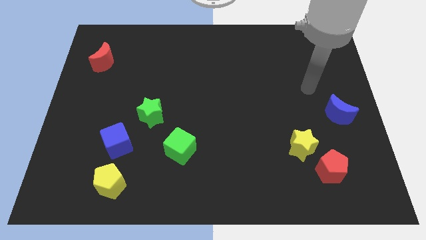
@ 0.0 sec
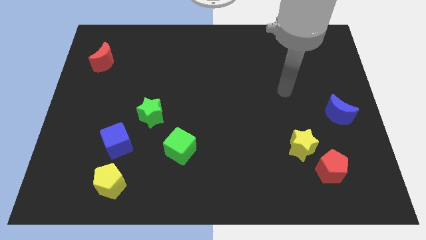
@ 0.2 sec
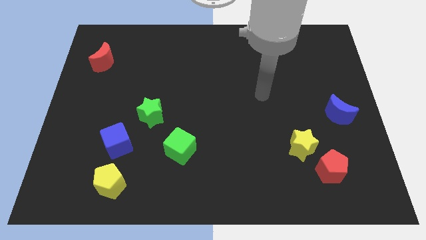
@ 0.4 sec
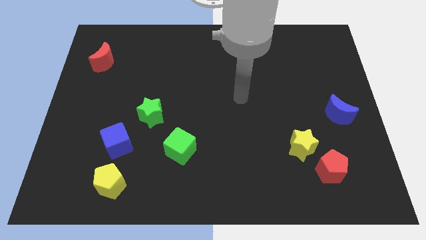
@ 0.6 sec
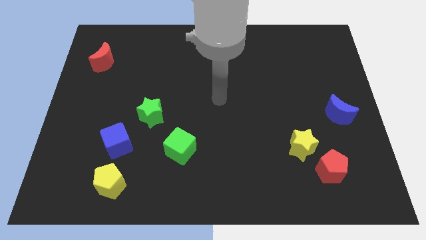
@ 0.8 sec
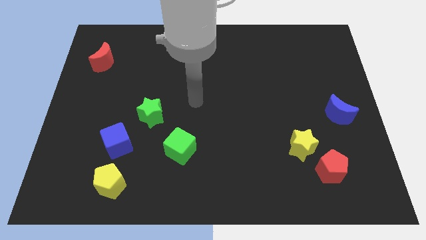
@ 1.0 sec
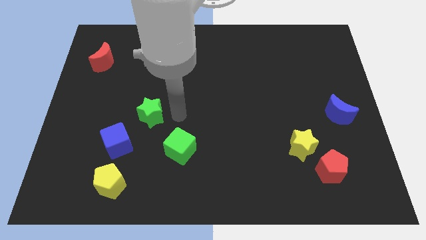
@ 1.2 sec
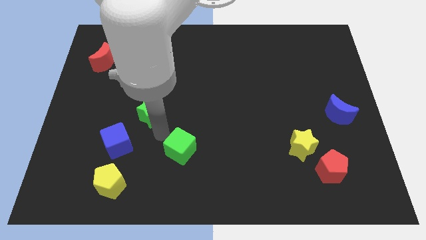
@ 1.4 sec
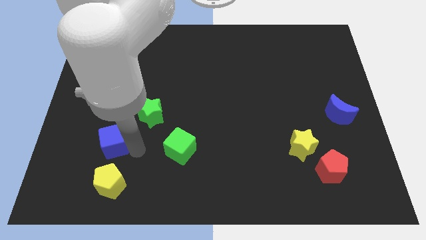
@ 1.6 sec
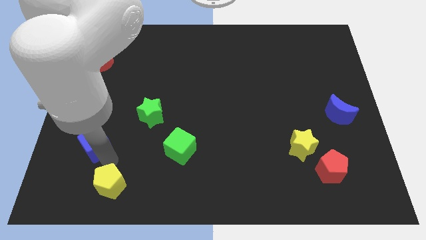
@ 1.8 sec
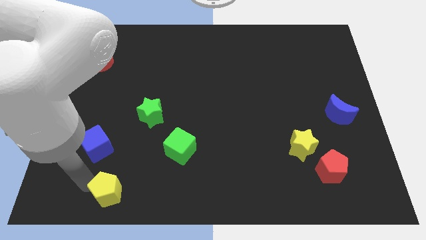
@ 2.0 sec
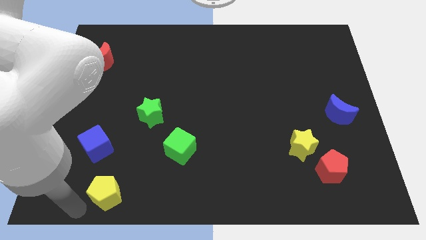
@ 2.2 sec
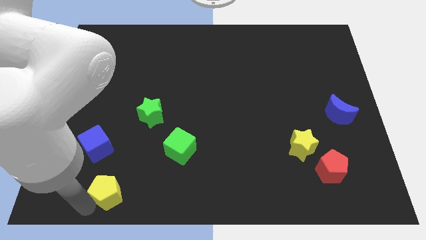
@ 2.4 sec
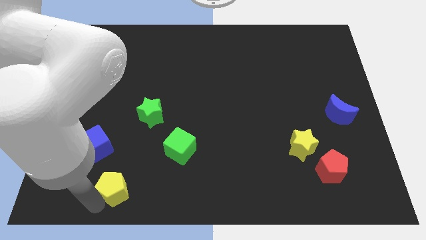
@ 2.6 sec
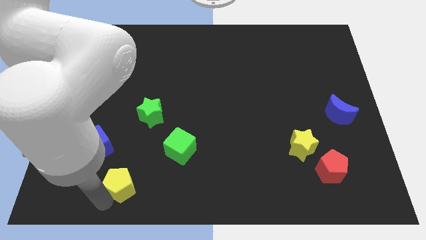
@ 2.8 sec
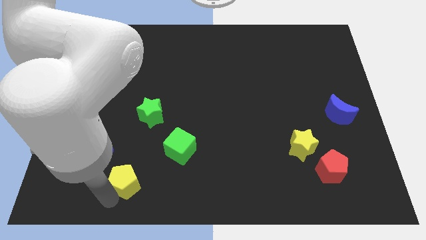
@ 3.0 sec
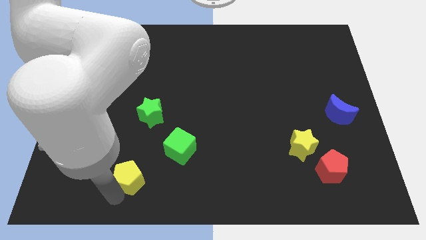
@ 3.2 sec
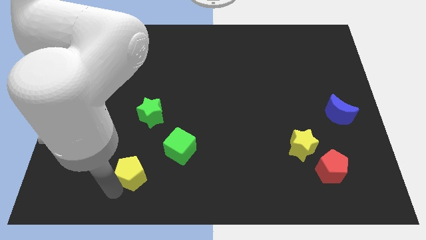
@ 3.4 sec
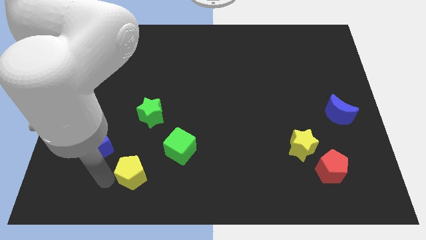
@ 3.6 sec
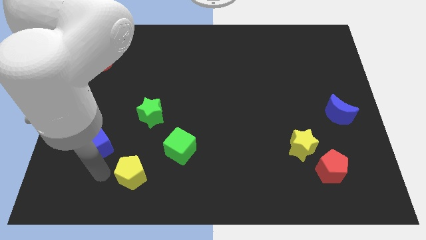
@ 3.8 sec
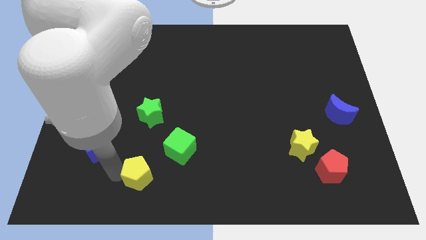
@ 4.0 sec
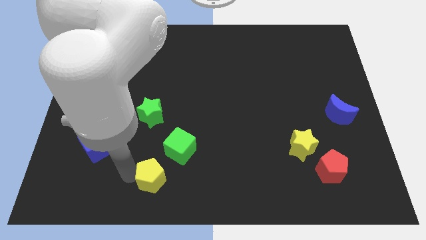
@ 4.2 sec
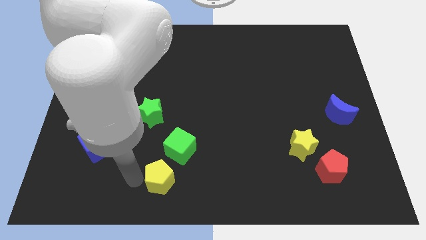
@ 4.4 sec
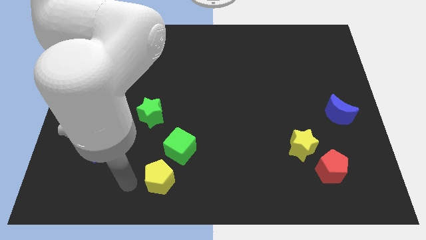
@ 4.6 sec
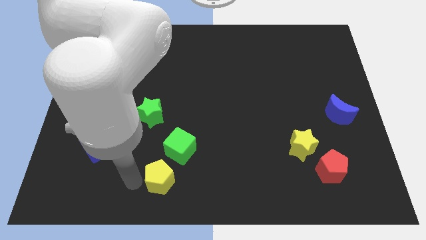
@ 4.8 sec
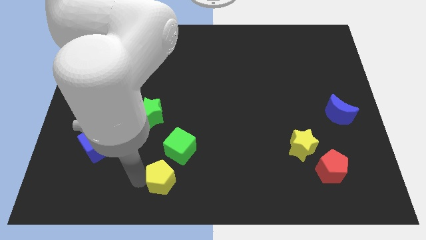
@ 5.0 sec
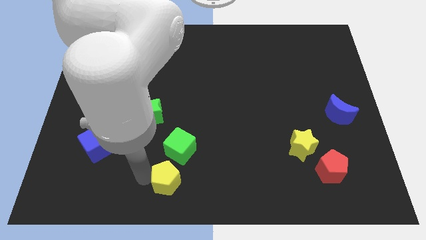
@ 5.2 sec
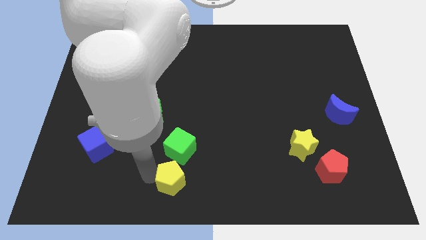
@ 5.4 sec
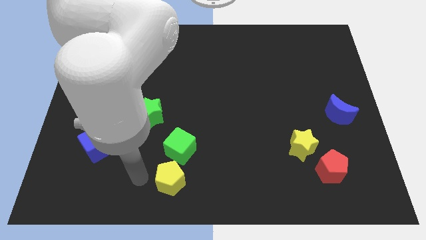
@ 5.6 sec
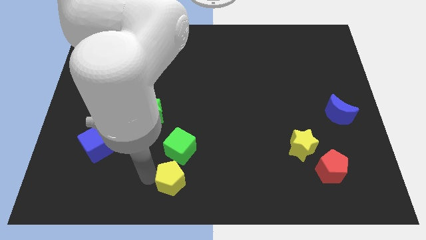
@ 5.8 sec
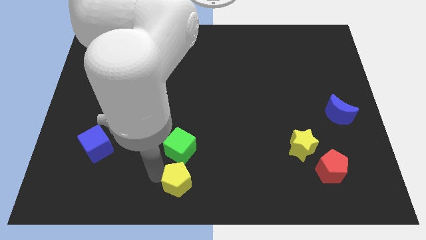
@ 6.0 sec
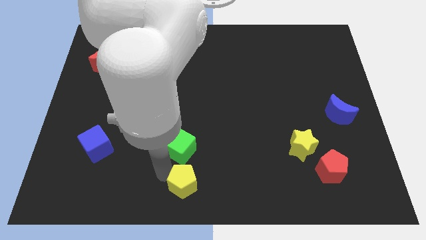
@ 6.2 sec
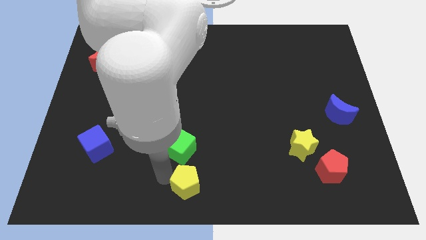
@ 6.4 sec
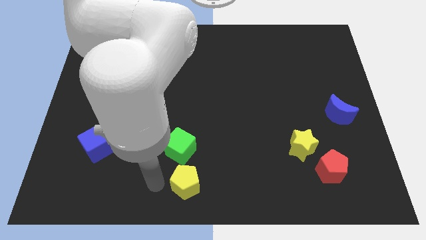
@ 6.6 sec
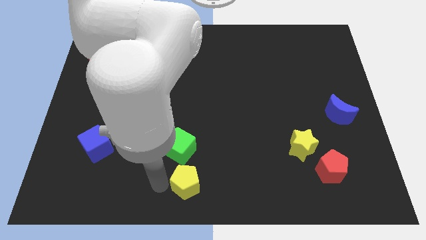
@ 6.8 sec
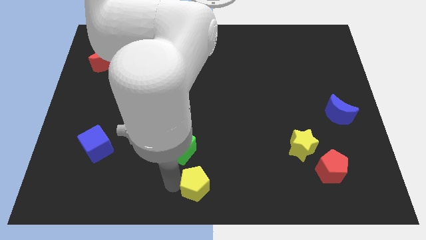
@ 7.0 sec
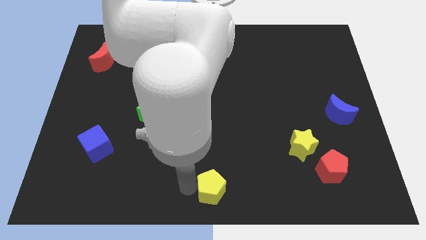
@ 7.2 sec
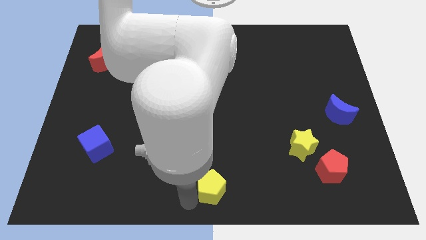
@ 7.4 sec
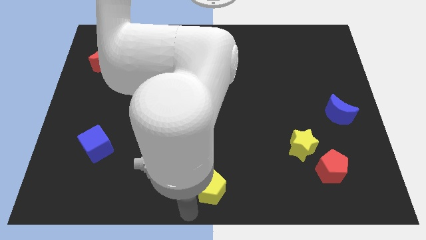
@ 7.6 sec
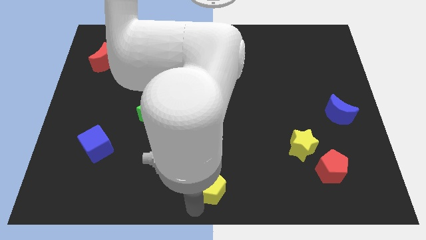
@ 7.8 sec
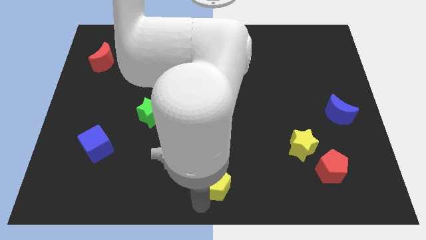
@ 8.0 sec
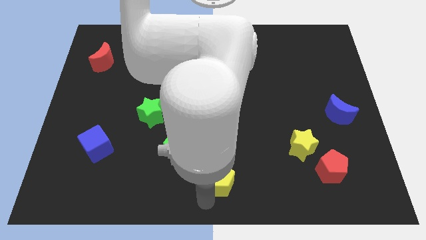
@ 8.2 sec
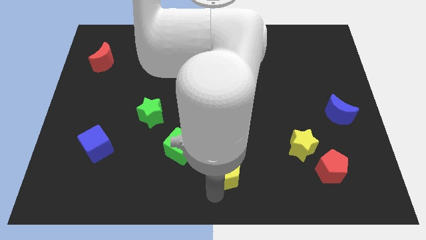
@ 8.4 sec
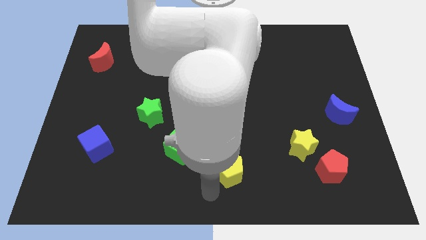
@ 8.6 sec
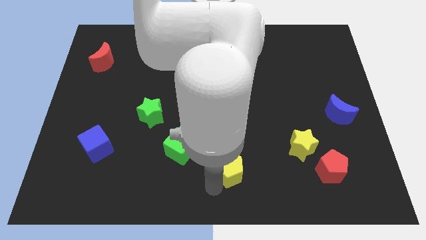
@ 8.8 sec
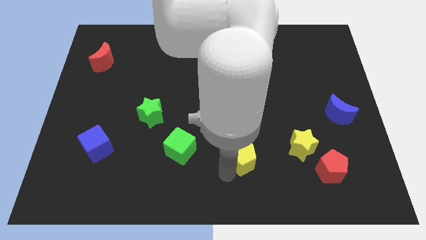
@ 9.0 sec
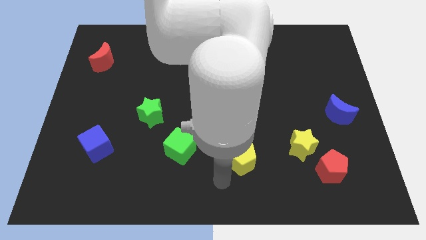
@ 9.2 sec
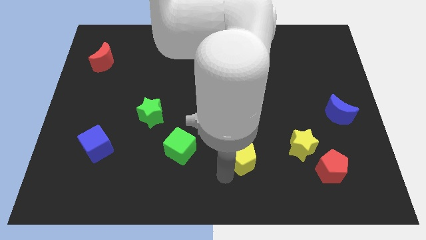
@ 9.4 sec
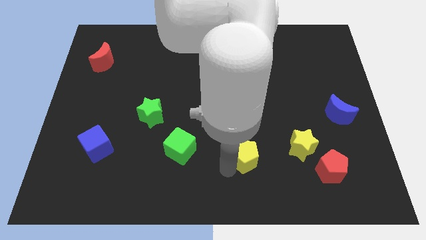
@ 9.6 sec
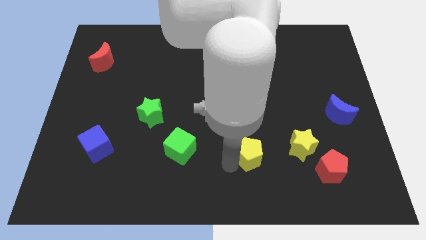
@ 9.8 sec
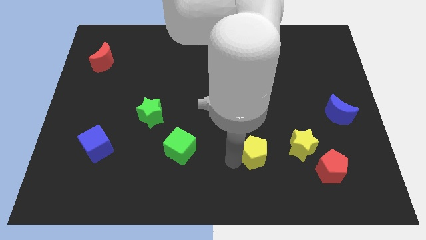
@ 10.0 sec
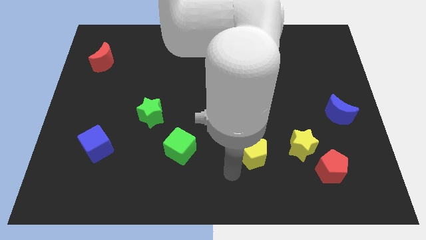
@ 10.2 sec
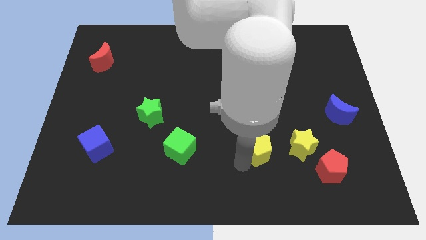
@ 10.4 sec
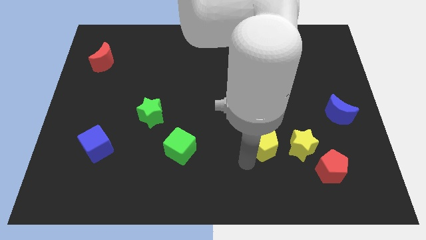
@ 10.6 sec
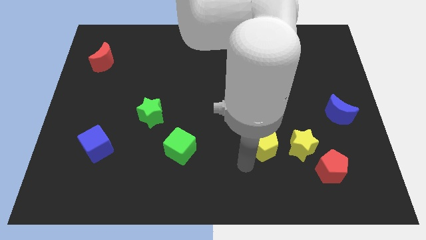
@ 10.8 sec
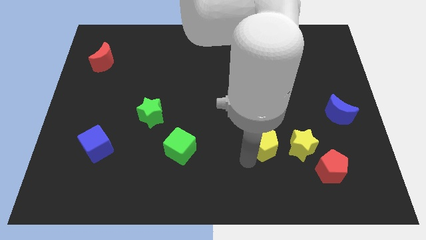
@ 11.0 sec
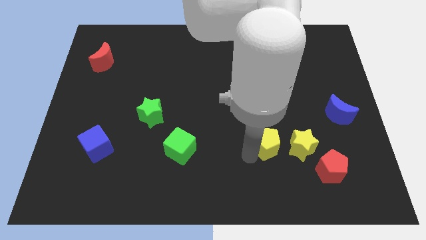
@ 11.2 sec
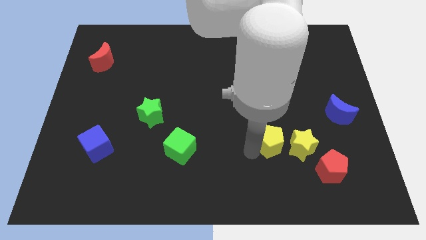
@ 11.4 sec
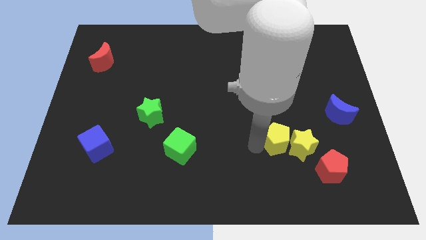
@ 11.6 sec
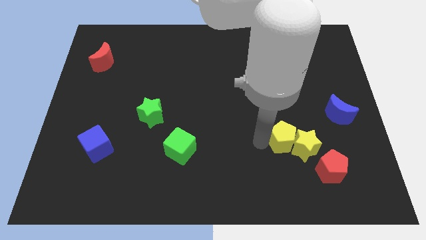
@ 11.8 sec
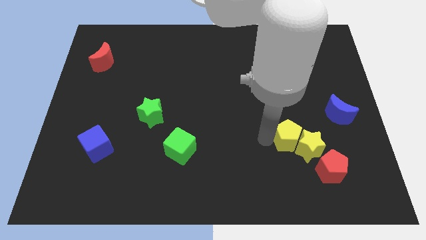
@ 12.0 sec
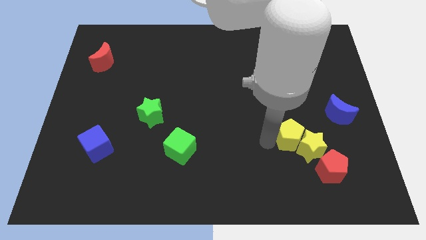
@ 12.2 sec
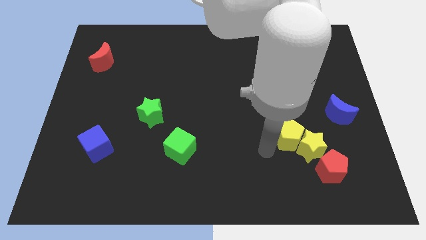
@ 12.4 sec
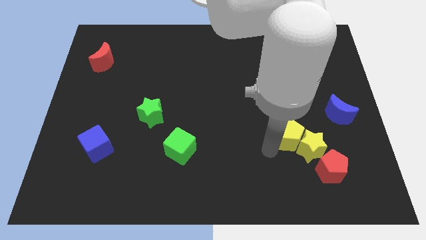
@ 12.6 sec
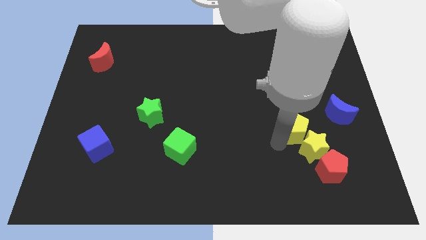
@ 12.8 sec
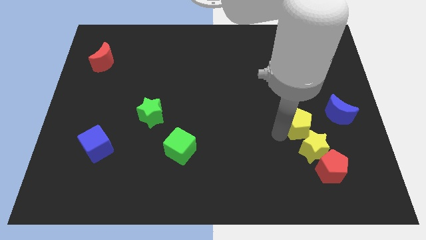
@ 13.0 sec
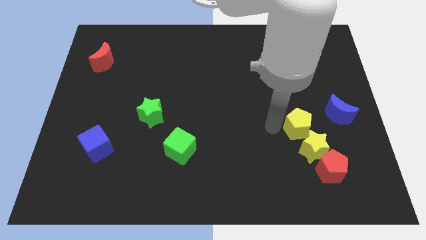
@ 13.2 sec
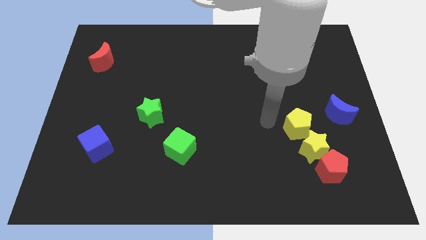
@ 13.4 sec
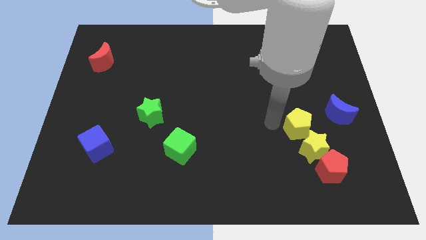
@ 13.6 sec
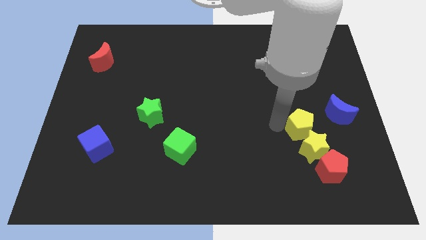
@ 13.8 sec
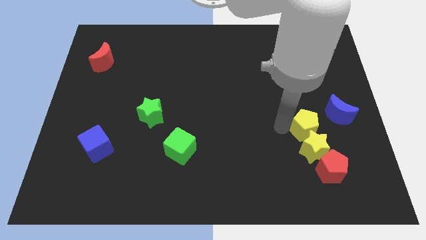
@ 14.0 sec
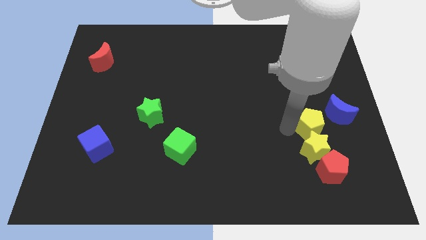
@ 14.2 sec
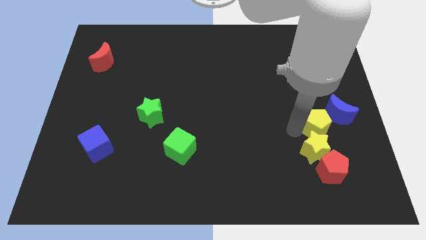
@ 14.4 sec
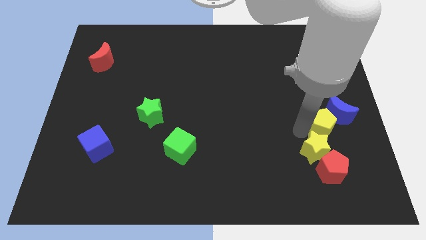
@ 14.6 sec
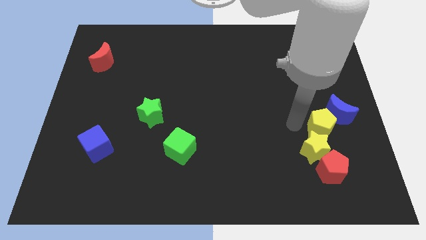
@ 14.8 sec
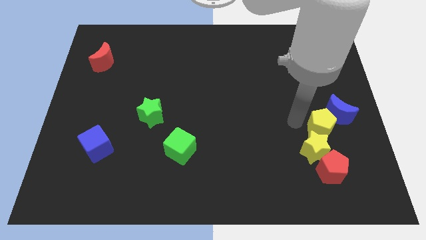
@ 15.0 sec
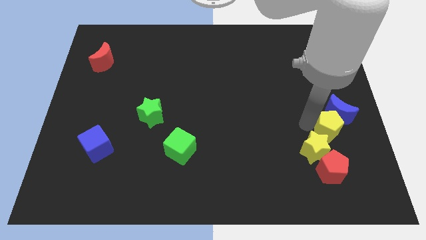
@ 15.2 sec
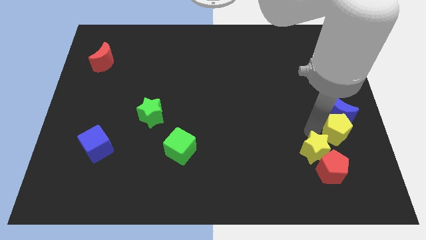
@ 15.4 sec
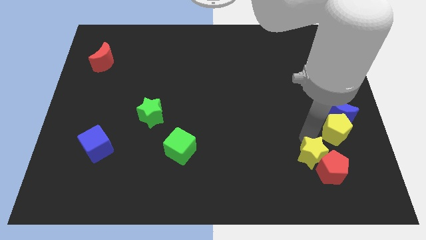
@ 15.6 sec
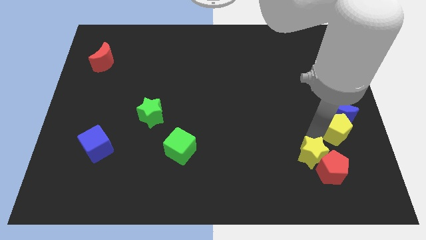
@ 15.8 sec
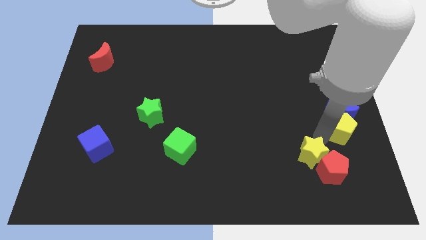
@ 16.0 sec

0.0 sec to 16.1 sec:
put the yellow pentagon to the center right
